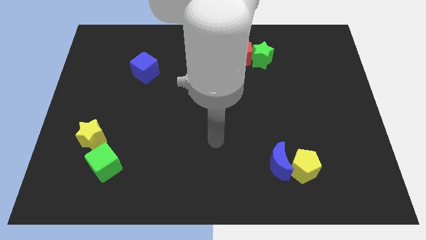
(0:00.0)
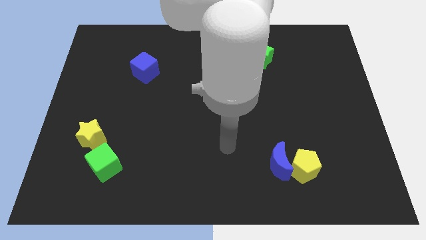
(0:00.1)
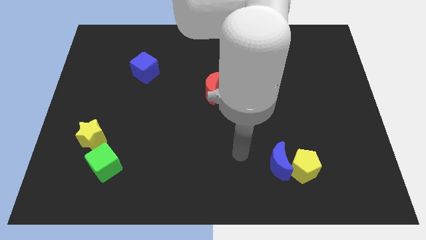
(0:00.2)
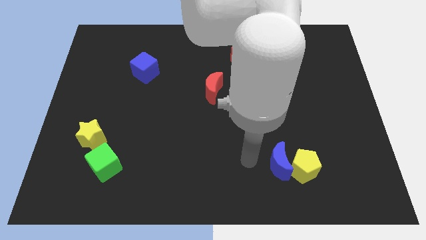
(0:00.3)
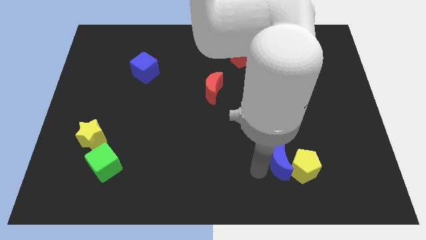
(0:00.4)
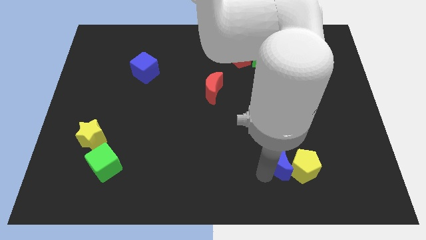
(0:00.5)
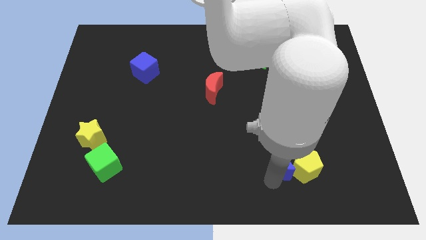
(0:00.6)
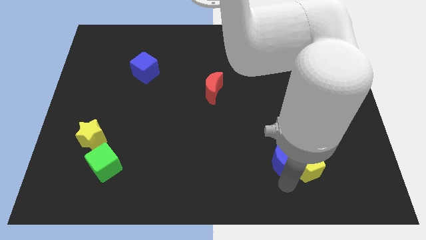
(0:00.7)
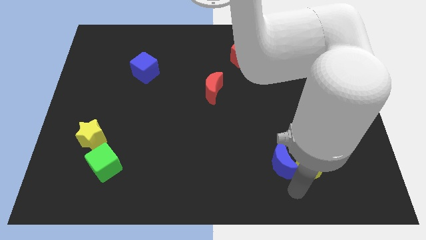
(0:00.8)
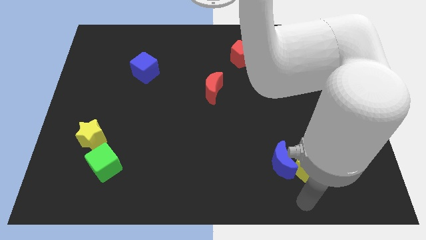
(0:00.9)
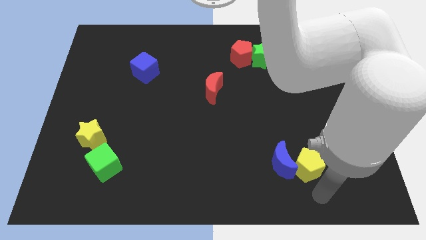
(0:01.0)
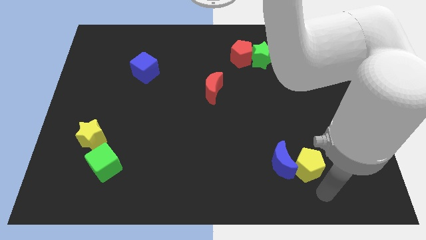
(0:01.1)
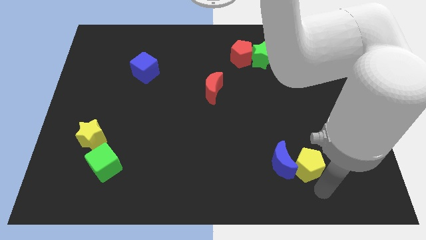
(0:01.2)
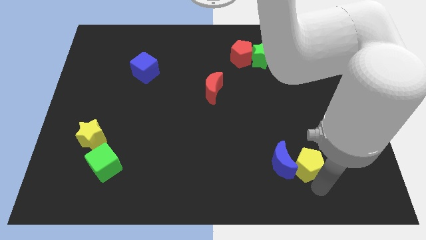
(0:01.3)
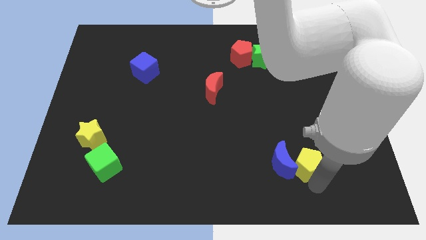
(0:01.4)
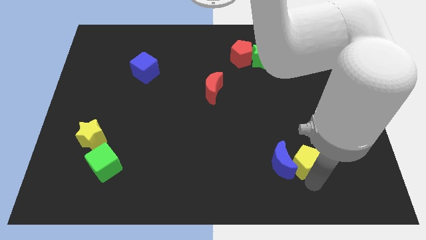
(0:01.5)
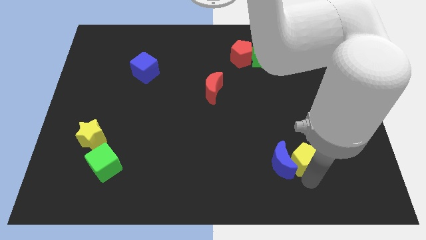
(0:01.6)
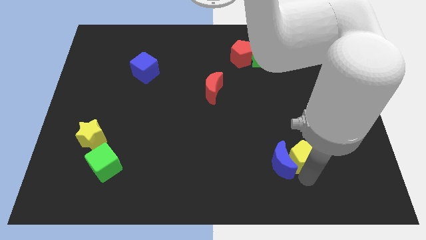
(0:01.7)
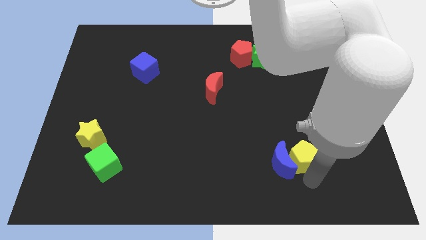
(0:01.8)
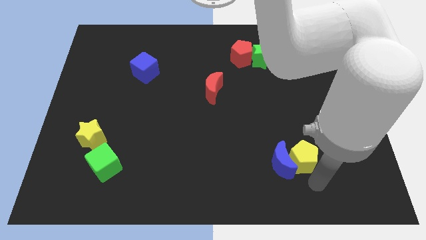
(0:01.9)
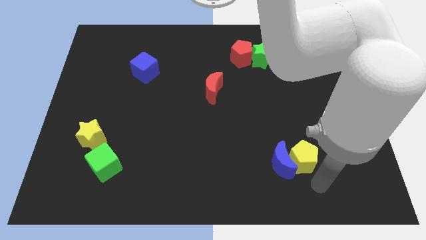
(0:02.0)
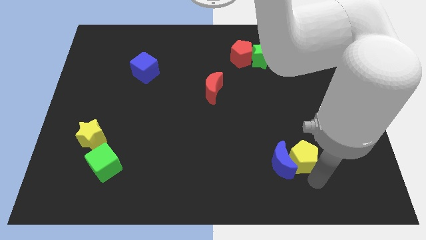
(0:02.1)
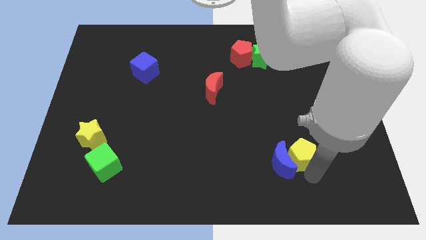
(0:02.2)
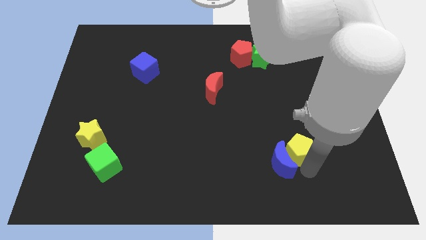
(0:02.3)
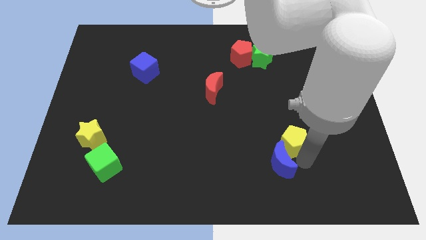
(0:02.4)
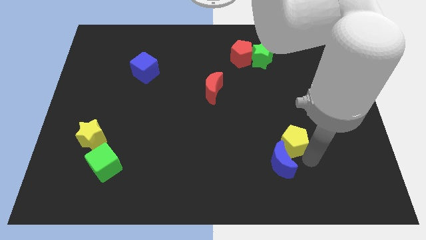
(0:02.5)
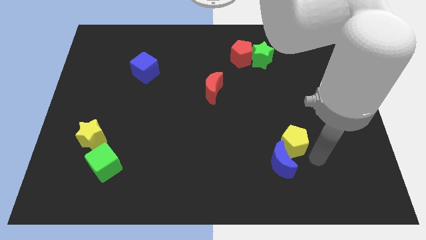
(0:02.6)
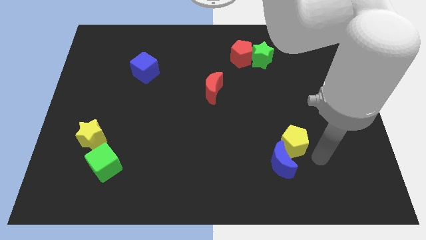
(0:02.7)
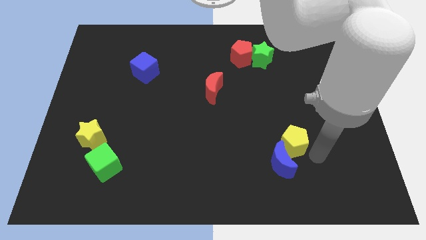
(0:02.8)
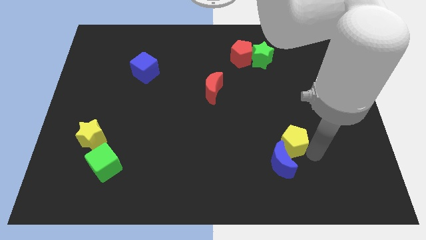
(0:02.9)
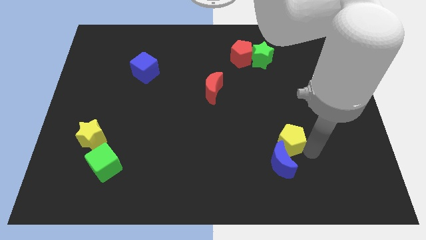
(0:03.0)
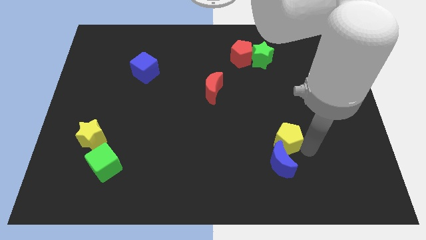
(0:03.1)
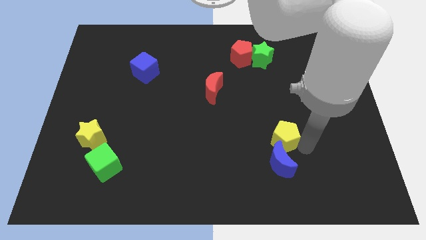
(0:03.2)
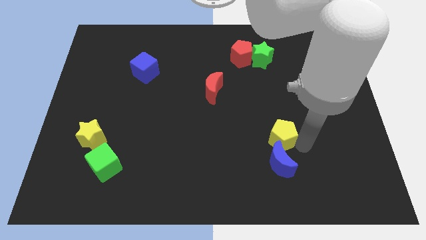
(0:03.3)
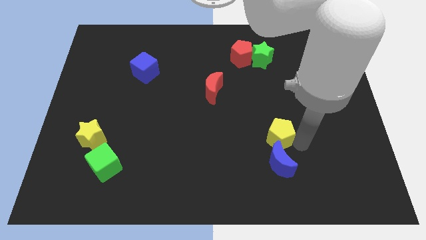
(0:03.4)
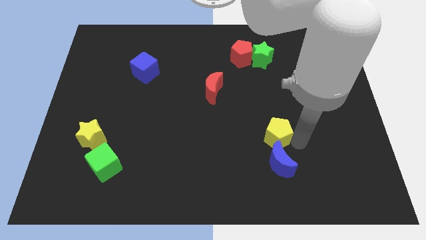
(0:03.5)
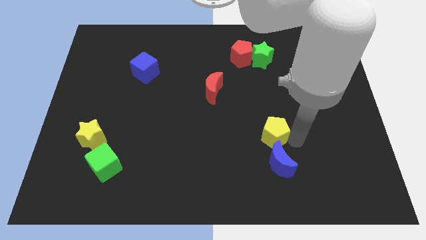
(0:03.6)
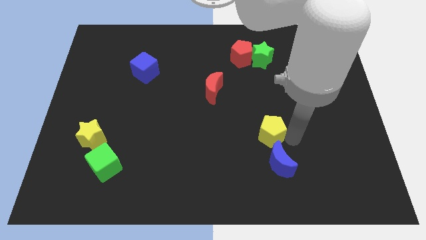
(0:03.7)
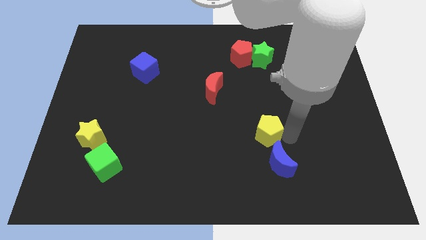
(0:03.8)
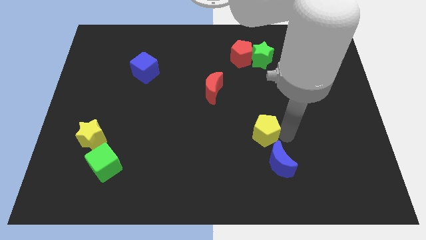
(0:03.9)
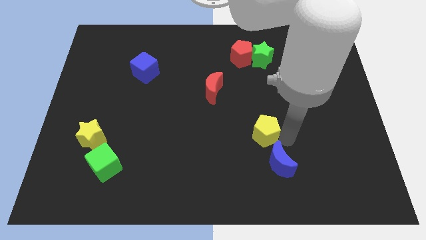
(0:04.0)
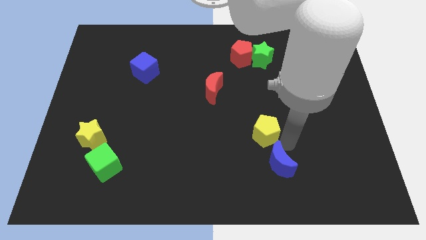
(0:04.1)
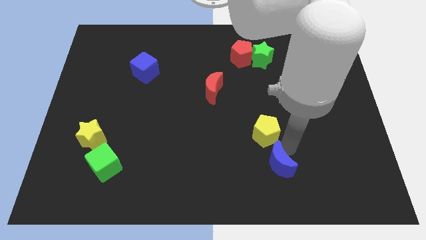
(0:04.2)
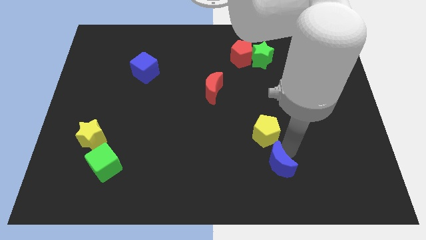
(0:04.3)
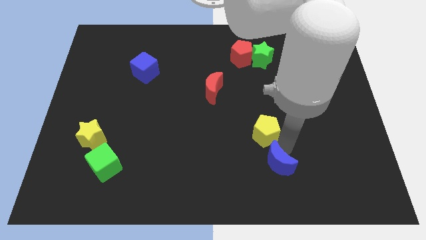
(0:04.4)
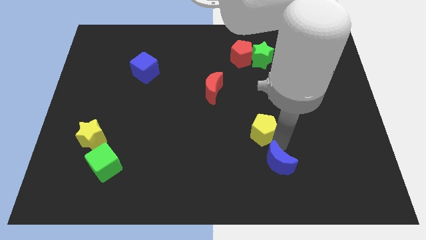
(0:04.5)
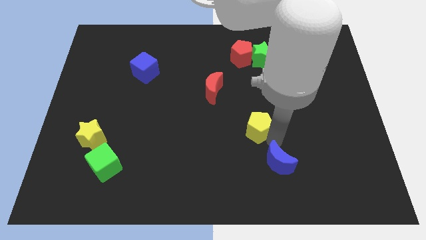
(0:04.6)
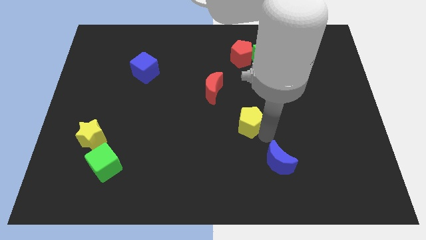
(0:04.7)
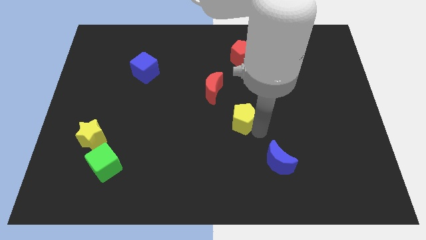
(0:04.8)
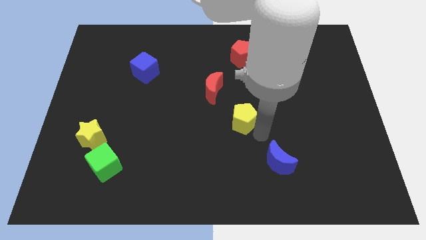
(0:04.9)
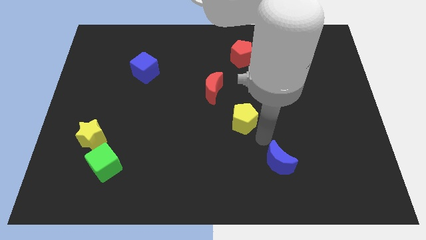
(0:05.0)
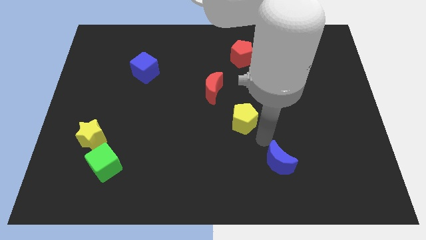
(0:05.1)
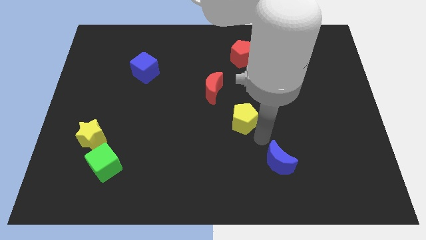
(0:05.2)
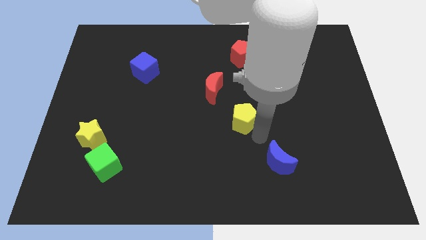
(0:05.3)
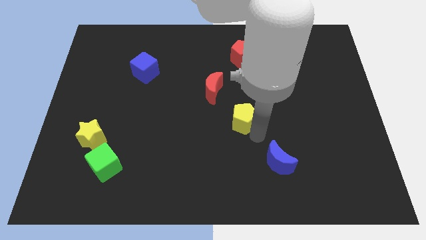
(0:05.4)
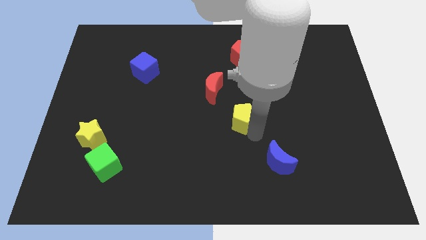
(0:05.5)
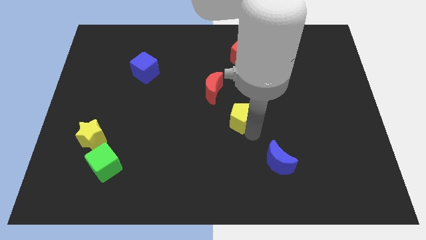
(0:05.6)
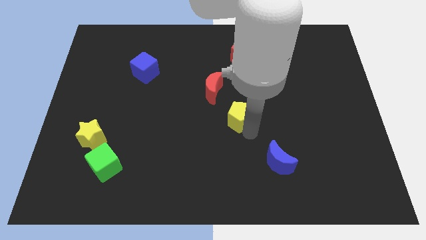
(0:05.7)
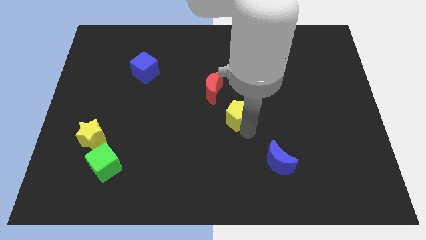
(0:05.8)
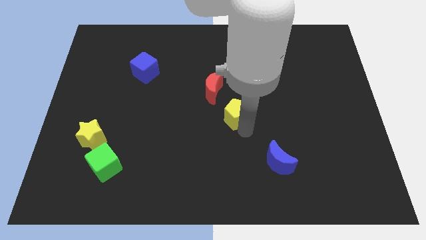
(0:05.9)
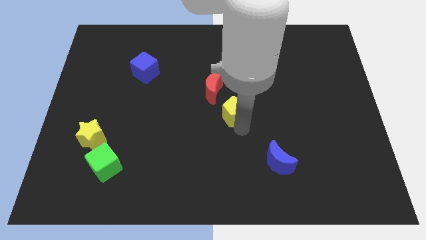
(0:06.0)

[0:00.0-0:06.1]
push the yellow pentagon up and then left

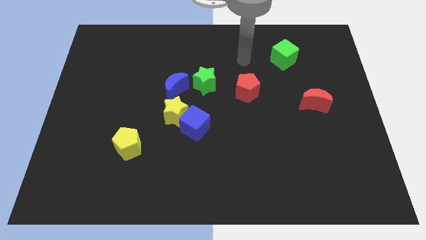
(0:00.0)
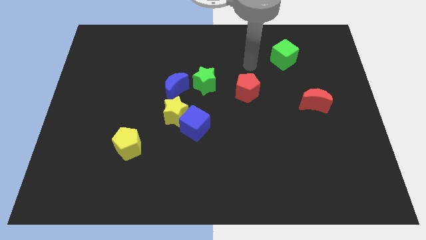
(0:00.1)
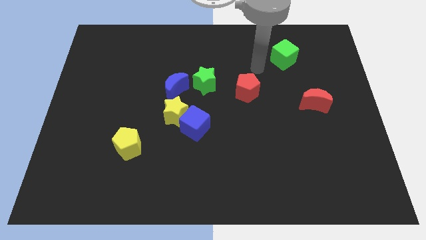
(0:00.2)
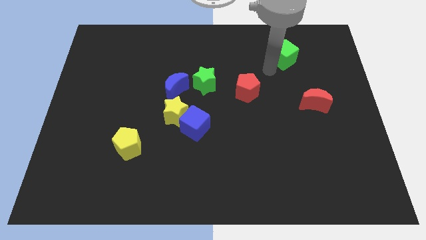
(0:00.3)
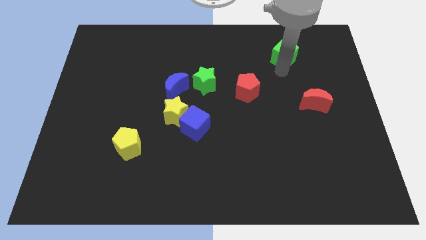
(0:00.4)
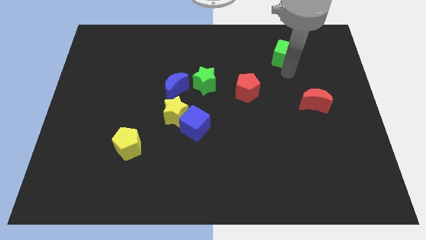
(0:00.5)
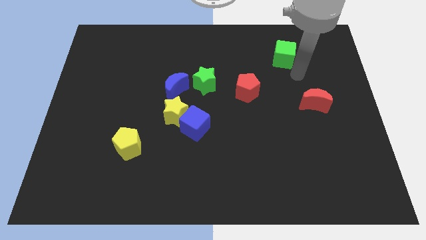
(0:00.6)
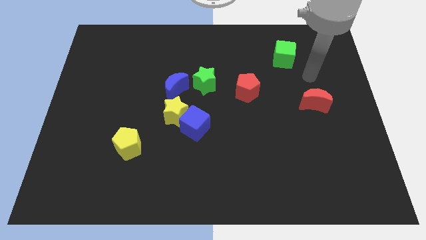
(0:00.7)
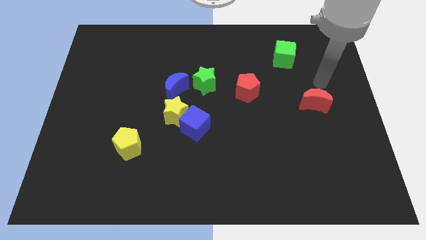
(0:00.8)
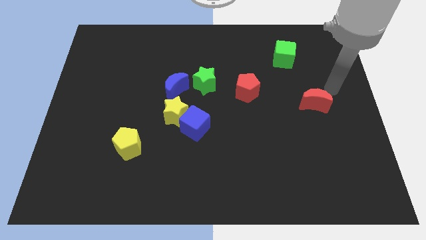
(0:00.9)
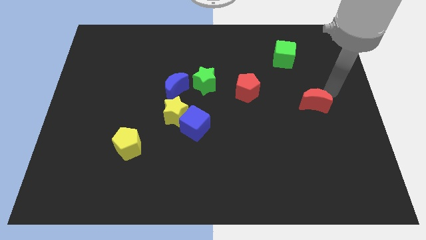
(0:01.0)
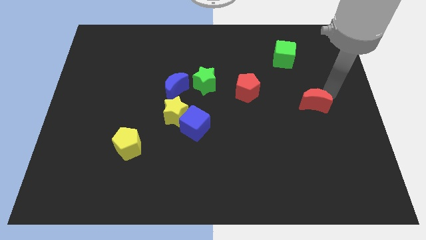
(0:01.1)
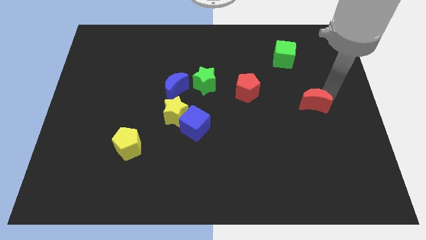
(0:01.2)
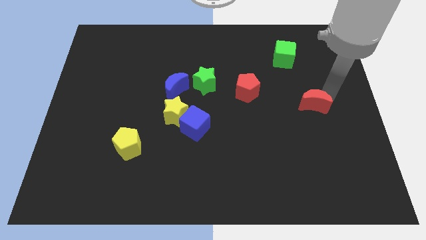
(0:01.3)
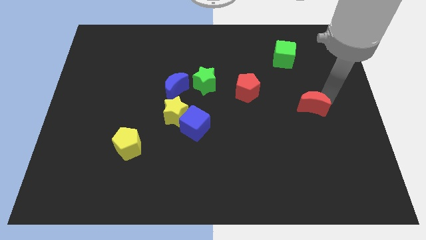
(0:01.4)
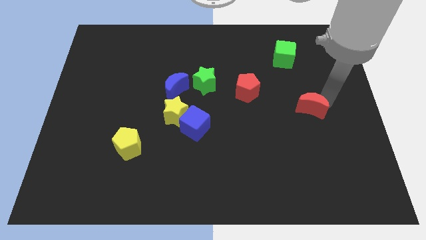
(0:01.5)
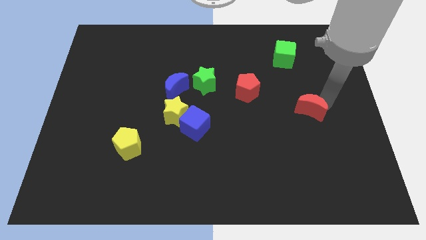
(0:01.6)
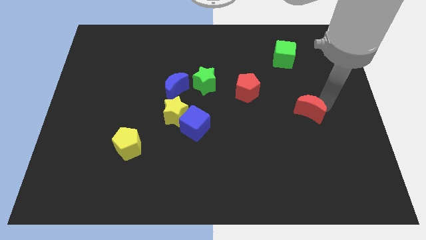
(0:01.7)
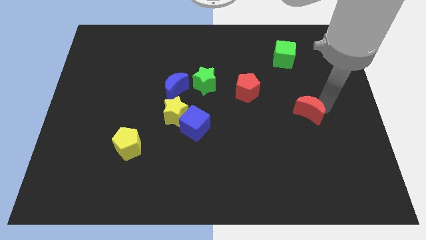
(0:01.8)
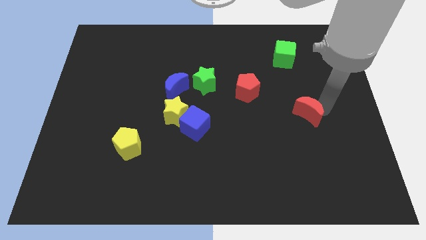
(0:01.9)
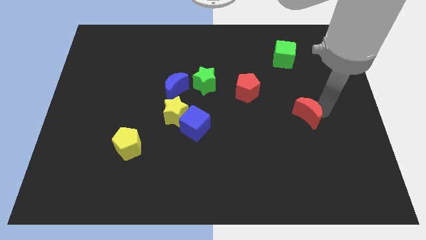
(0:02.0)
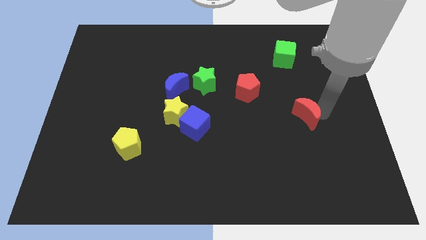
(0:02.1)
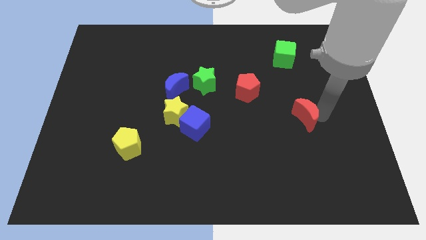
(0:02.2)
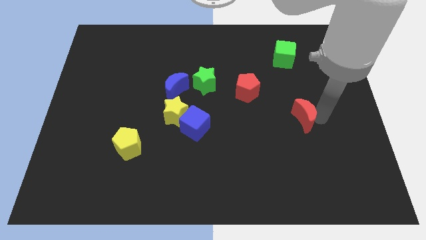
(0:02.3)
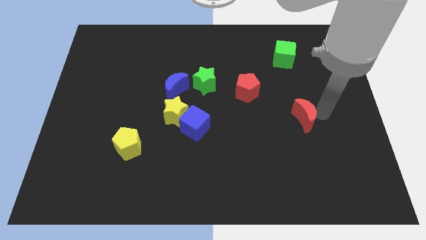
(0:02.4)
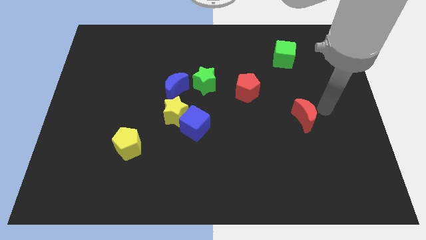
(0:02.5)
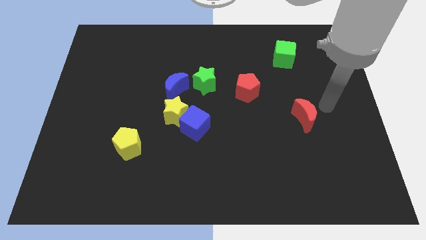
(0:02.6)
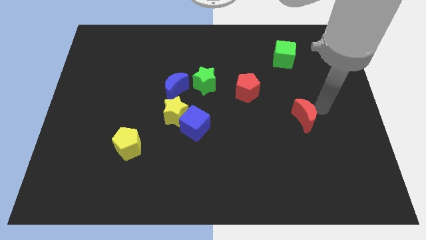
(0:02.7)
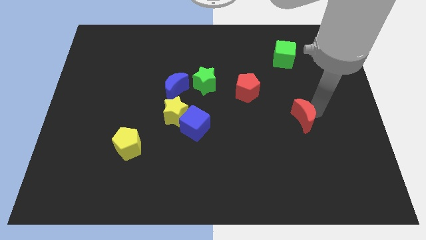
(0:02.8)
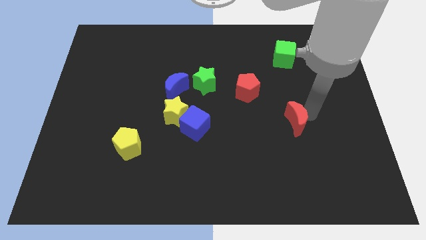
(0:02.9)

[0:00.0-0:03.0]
move the red moon a little diagonally down and to the left
